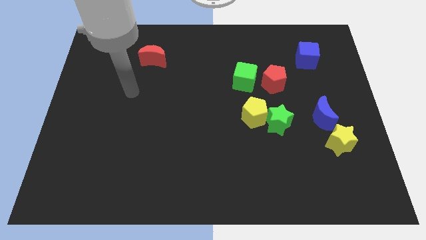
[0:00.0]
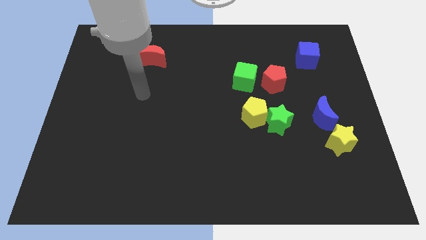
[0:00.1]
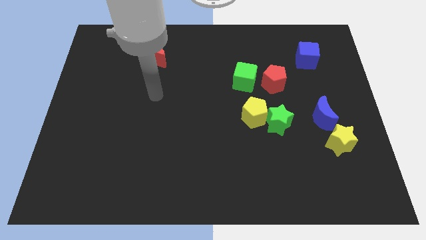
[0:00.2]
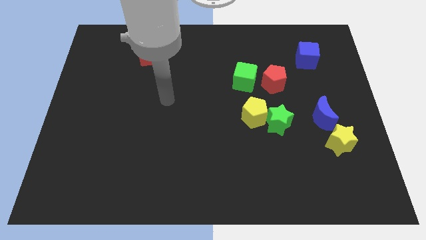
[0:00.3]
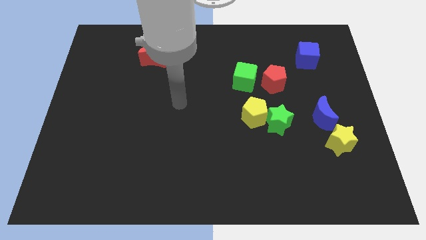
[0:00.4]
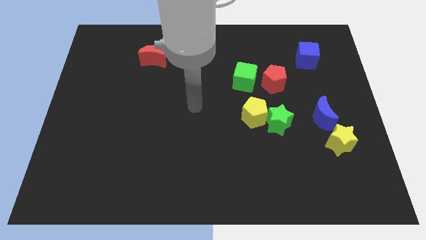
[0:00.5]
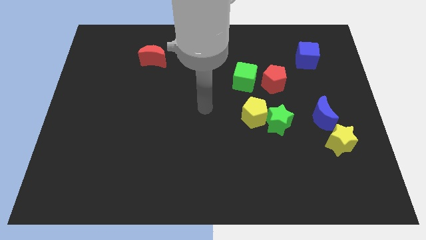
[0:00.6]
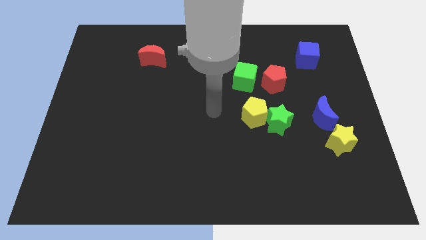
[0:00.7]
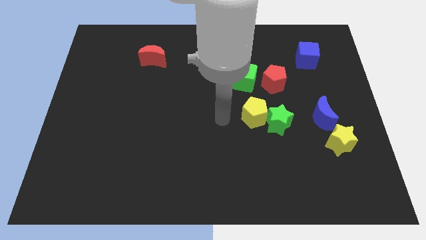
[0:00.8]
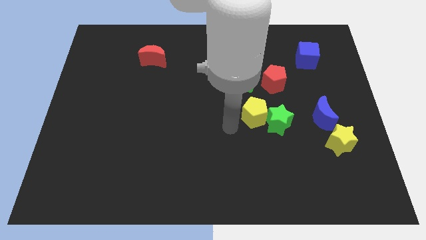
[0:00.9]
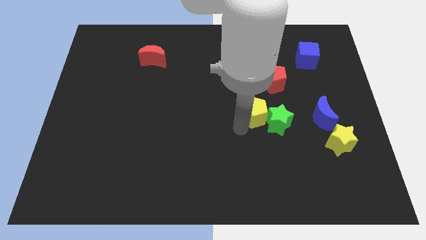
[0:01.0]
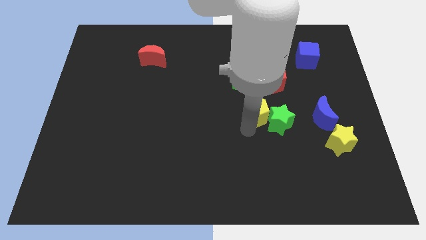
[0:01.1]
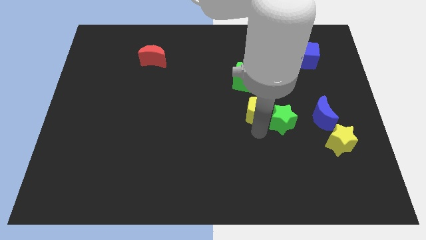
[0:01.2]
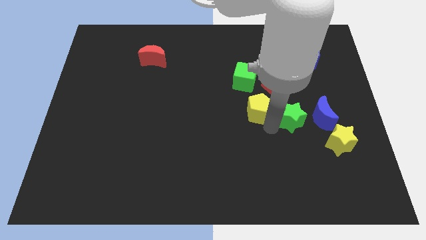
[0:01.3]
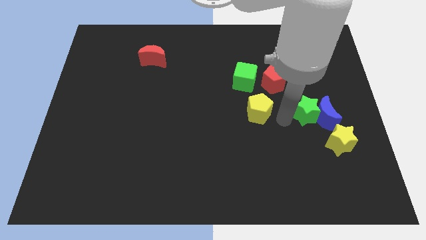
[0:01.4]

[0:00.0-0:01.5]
move the yellow pentagon away from the green star

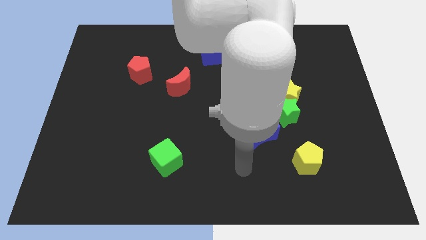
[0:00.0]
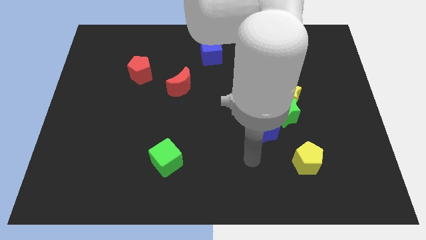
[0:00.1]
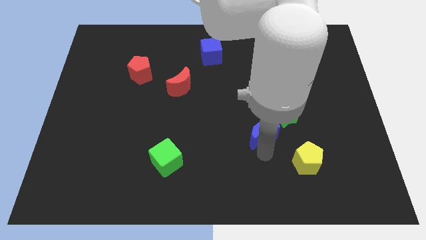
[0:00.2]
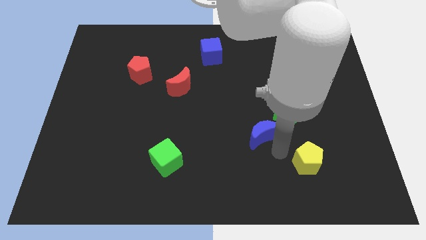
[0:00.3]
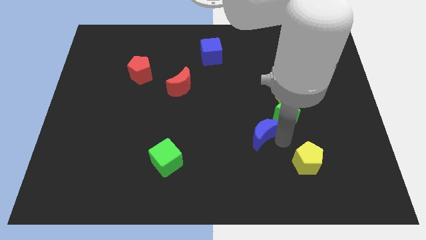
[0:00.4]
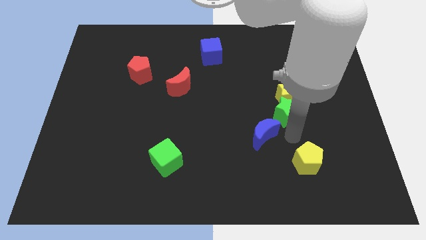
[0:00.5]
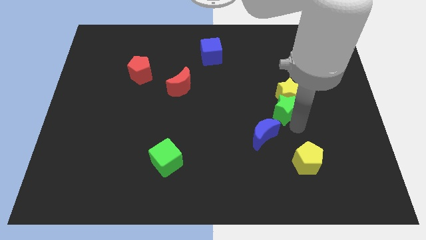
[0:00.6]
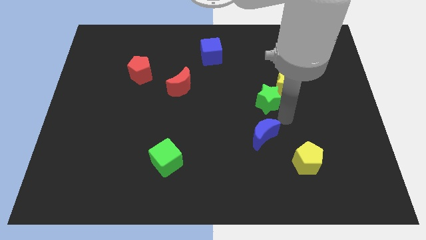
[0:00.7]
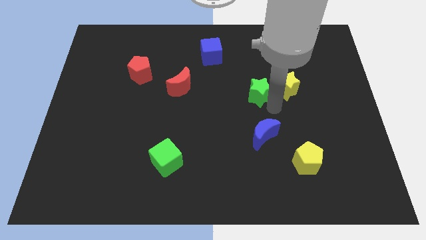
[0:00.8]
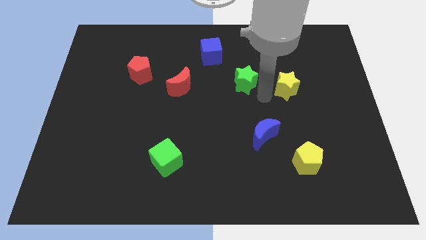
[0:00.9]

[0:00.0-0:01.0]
pull the yellow star apart from the green star

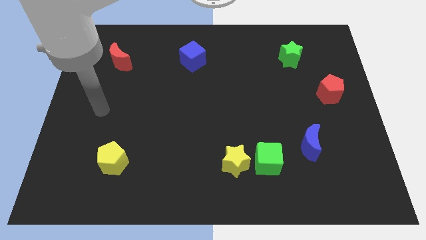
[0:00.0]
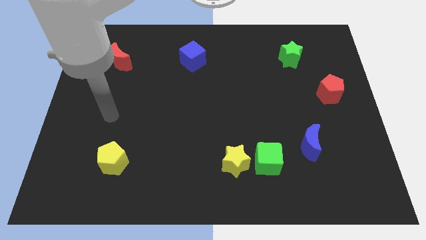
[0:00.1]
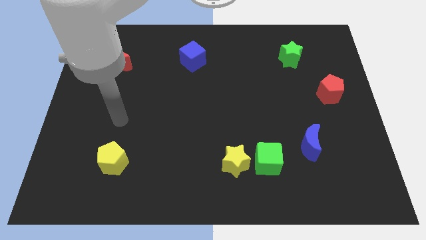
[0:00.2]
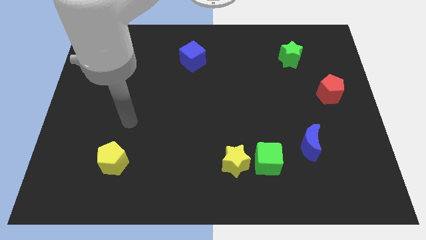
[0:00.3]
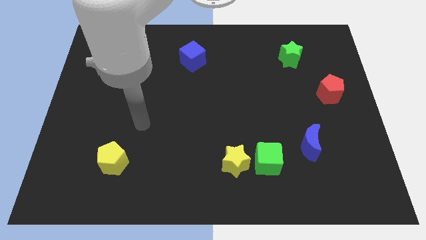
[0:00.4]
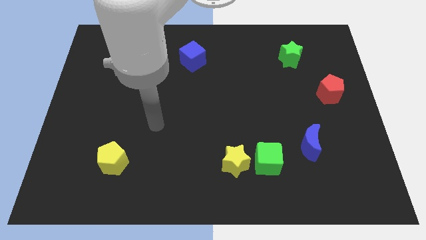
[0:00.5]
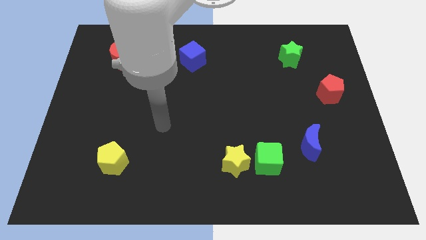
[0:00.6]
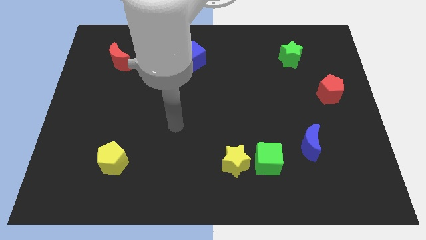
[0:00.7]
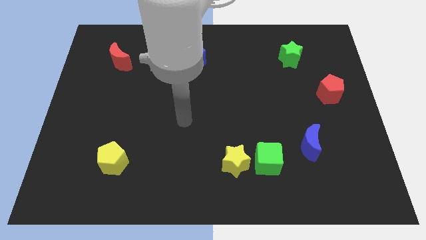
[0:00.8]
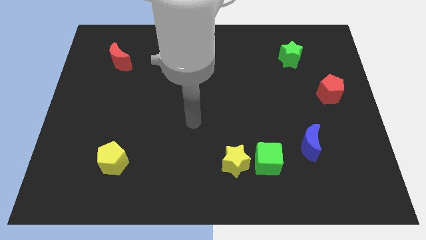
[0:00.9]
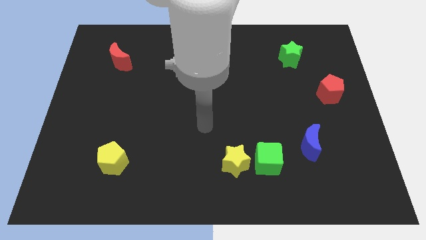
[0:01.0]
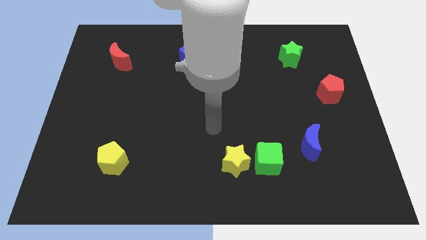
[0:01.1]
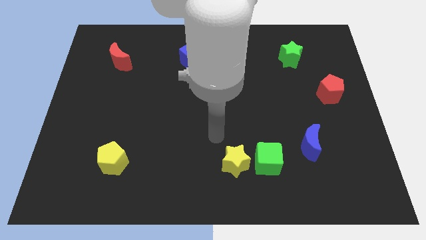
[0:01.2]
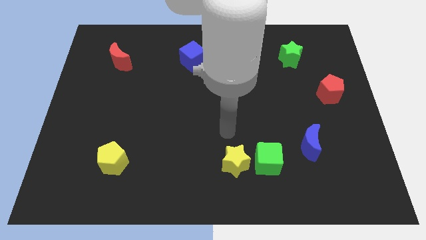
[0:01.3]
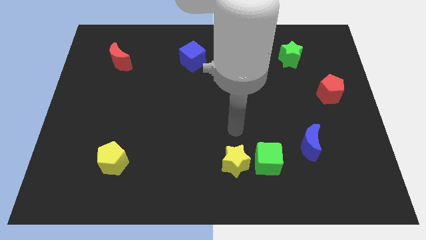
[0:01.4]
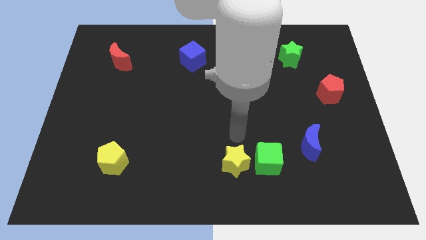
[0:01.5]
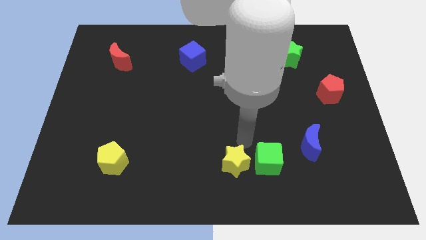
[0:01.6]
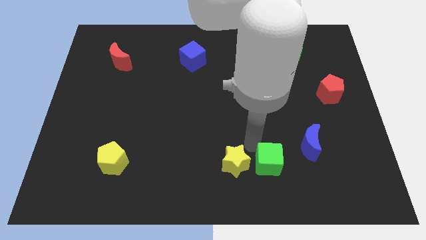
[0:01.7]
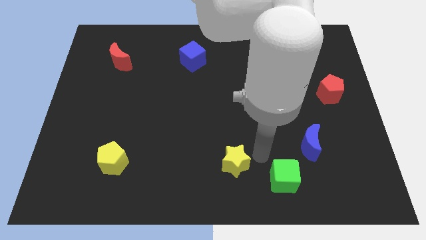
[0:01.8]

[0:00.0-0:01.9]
pull the yellow star apart from the green cube

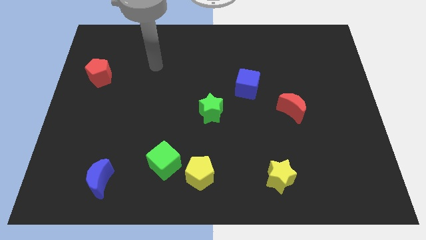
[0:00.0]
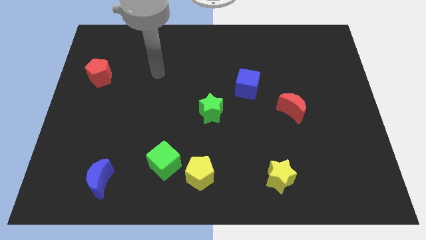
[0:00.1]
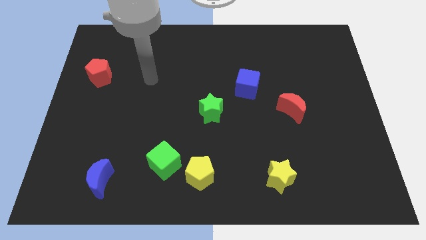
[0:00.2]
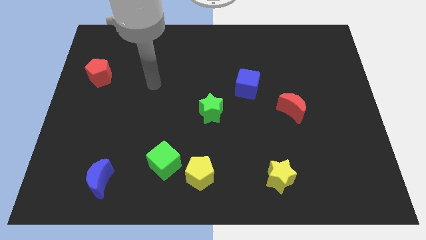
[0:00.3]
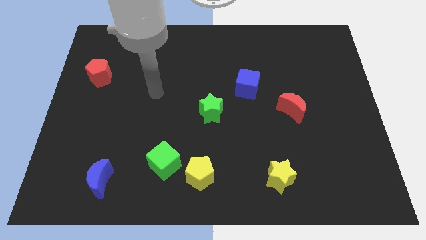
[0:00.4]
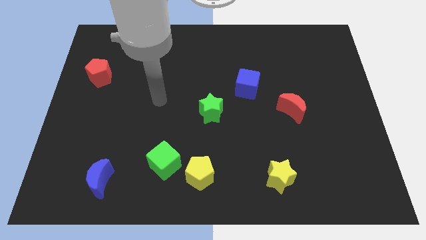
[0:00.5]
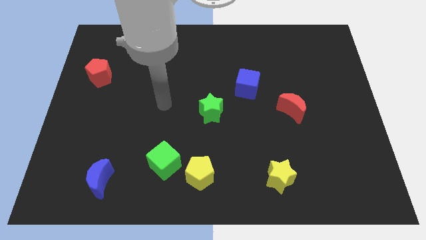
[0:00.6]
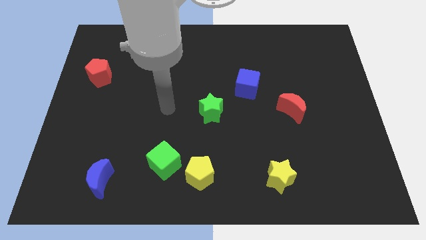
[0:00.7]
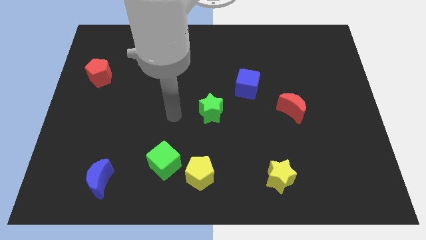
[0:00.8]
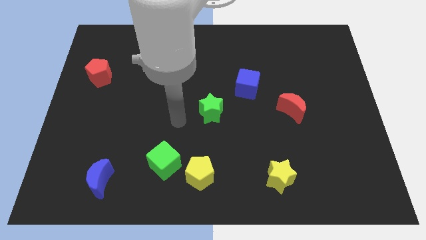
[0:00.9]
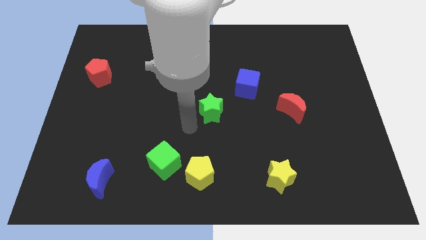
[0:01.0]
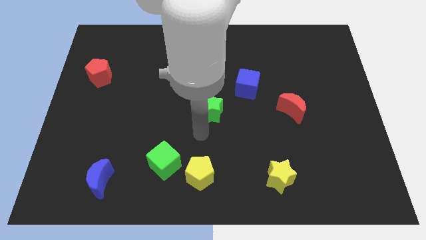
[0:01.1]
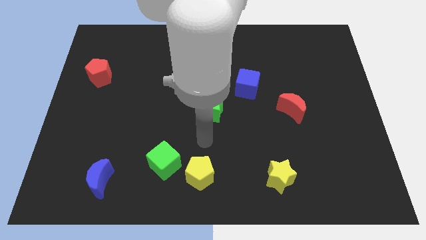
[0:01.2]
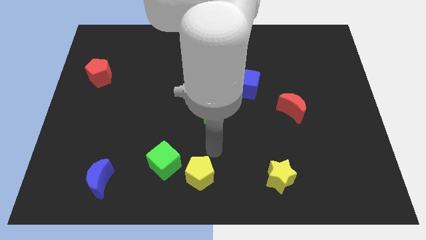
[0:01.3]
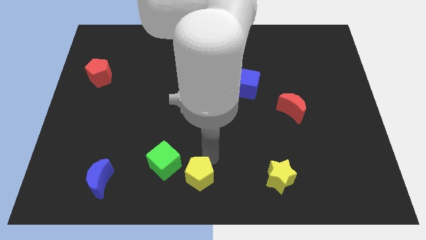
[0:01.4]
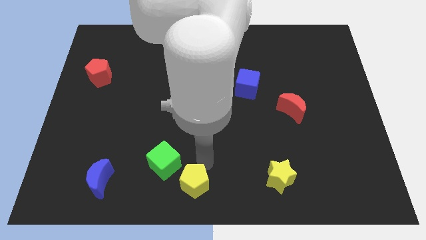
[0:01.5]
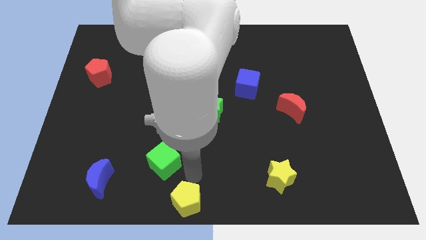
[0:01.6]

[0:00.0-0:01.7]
pull the green cube apart from the yellow pentagon

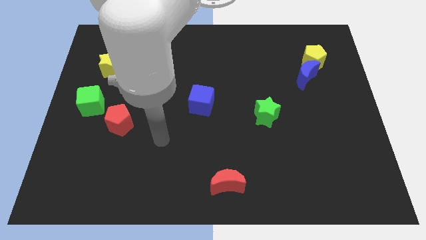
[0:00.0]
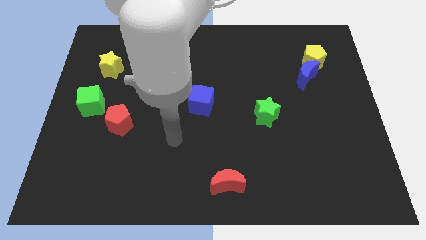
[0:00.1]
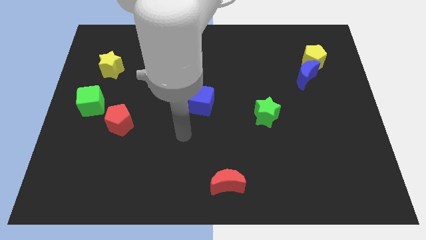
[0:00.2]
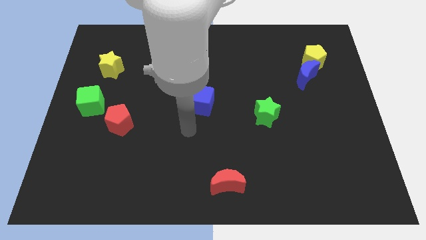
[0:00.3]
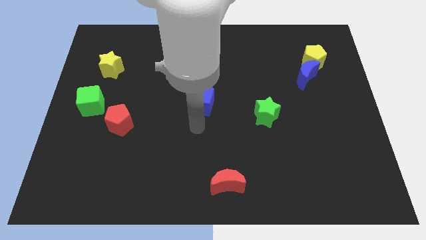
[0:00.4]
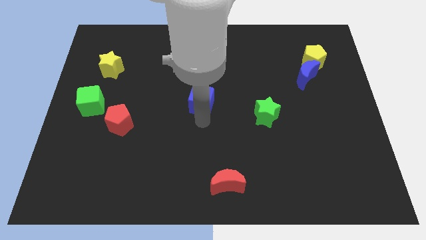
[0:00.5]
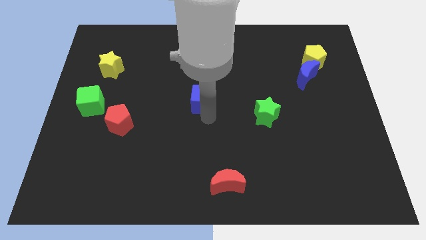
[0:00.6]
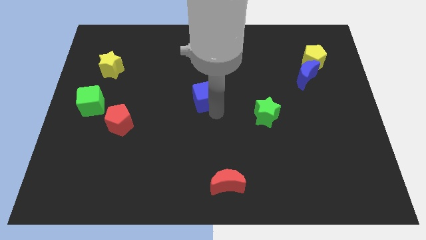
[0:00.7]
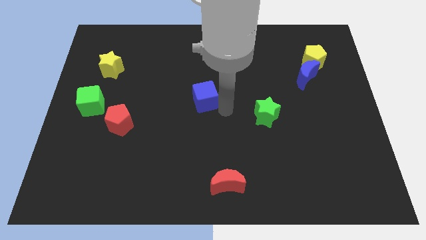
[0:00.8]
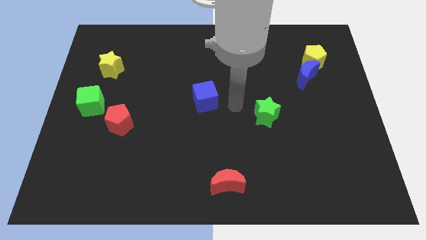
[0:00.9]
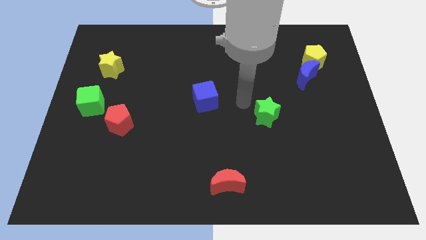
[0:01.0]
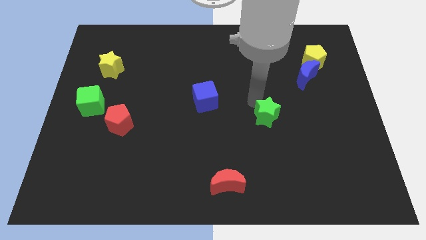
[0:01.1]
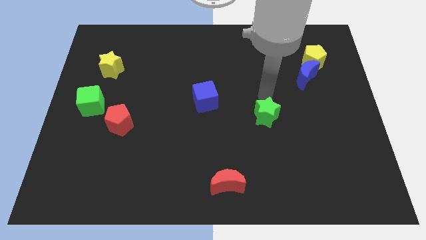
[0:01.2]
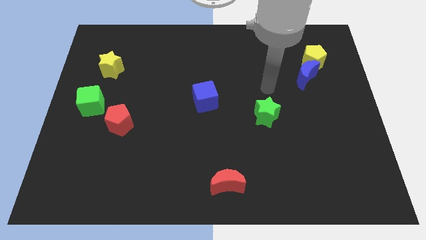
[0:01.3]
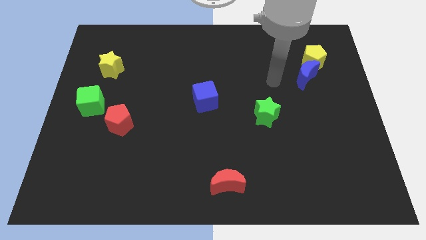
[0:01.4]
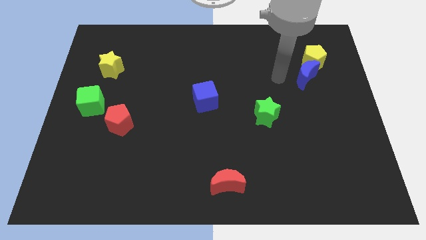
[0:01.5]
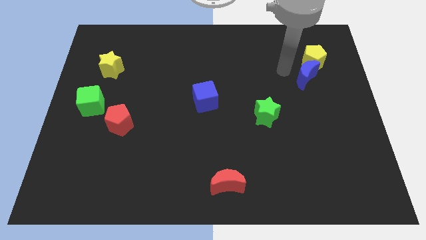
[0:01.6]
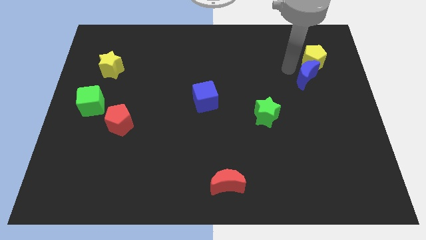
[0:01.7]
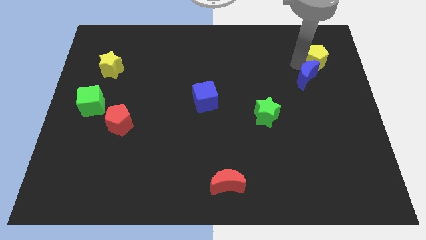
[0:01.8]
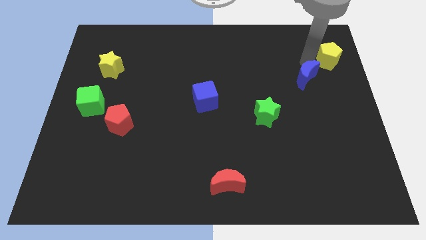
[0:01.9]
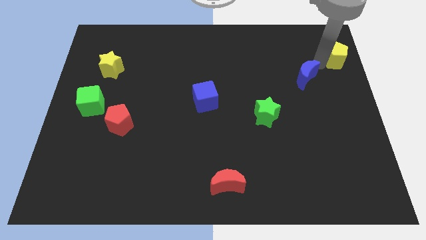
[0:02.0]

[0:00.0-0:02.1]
move the blue moon away from the yellow pentagon

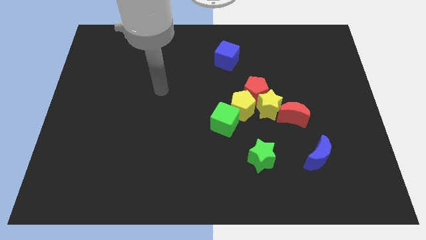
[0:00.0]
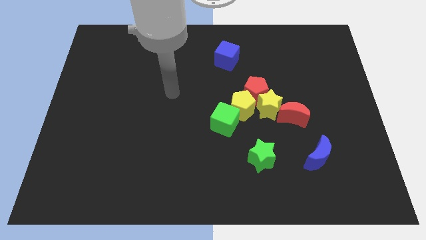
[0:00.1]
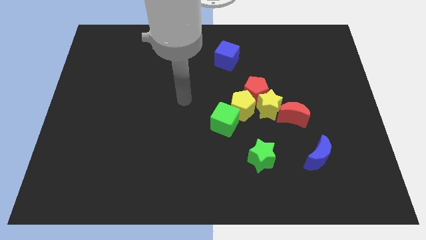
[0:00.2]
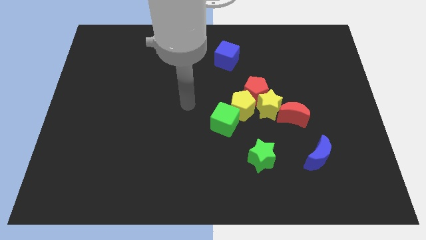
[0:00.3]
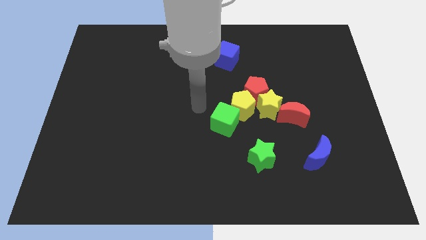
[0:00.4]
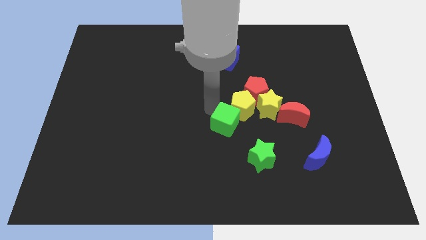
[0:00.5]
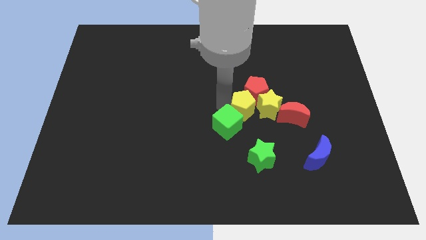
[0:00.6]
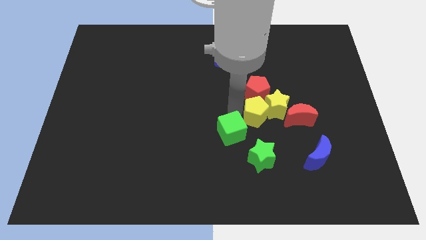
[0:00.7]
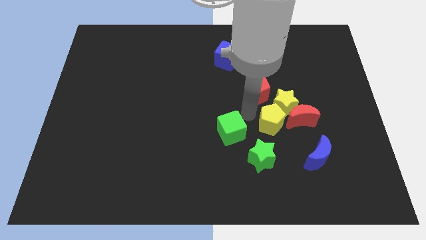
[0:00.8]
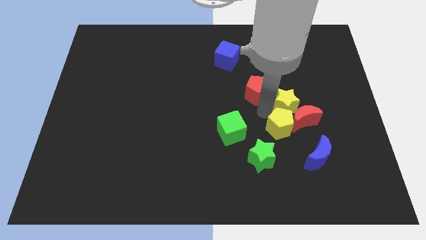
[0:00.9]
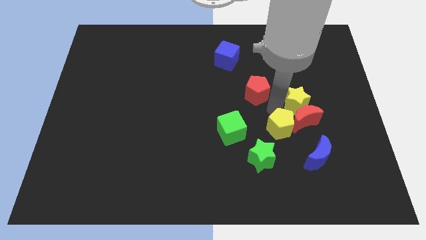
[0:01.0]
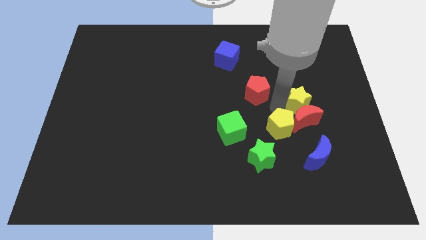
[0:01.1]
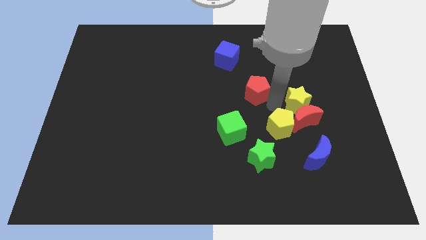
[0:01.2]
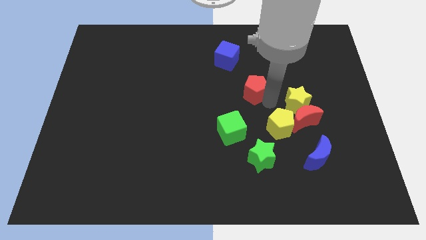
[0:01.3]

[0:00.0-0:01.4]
pull the red pentagon apart from the yellow star and yellow pentagon
